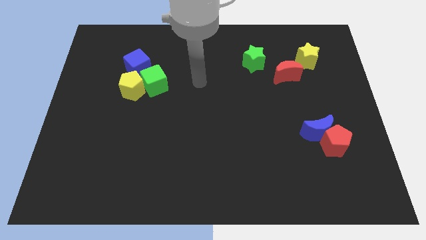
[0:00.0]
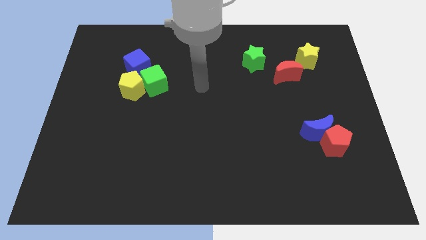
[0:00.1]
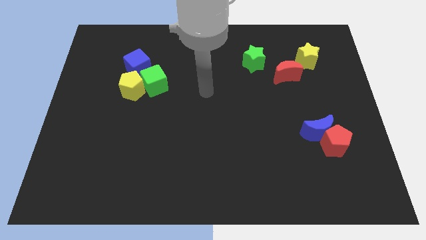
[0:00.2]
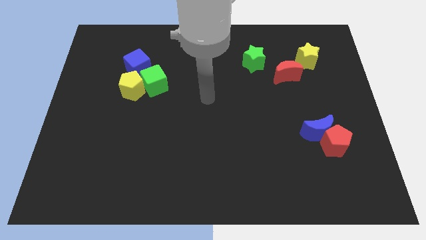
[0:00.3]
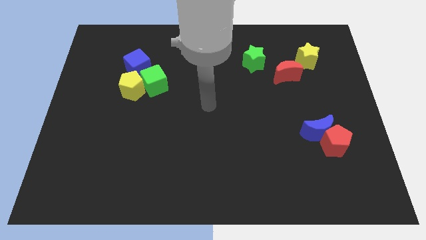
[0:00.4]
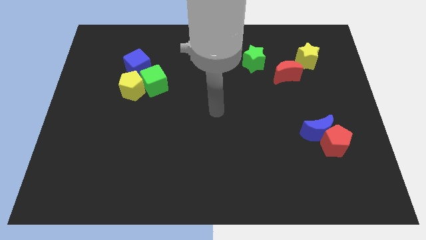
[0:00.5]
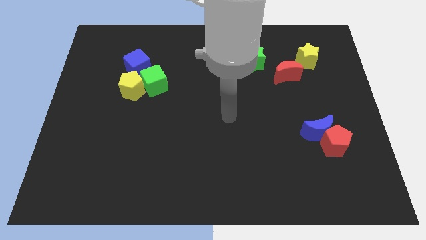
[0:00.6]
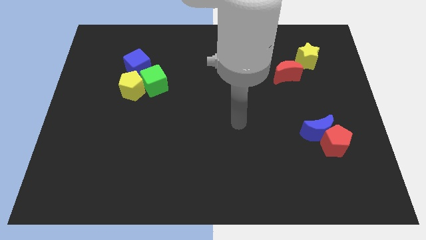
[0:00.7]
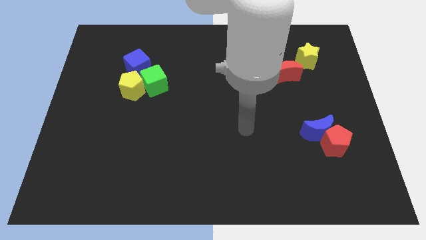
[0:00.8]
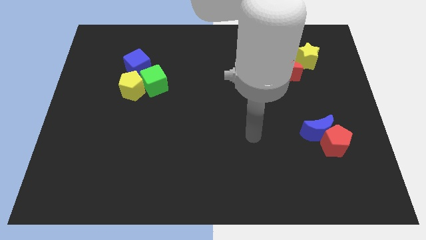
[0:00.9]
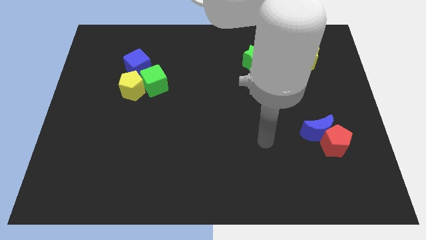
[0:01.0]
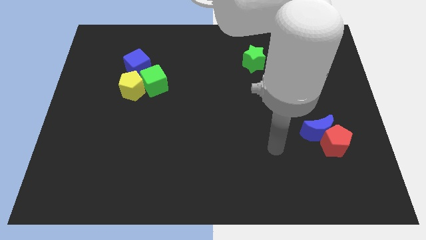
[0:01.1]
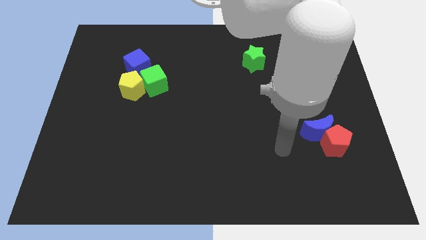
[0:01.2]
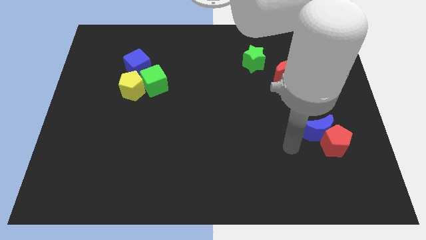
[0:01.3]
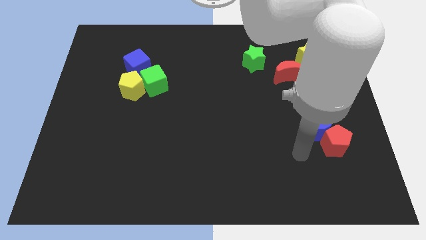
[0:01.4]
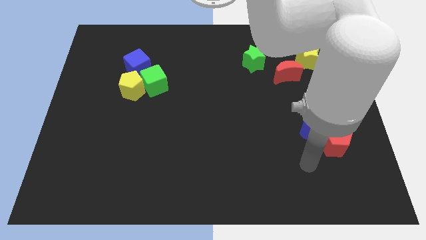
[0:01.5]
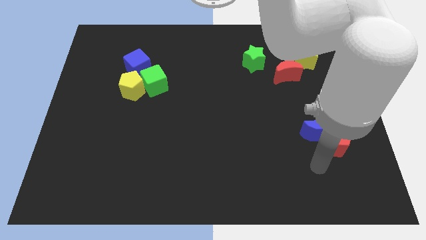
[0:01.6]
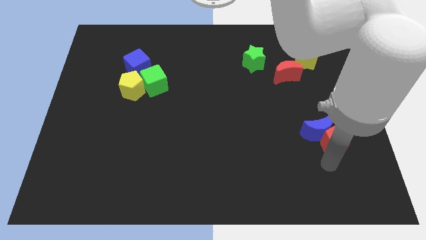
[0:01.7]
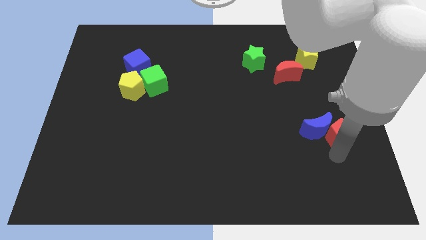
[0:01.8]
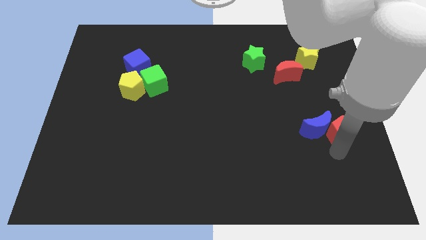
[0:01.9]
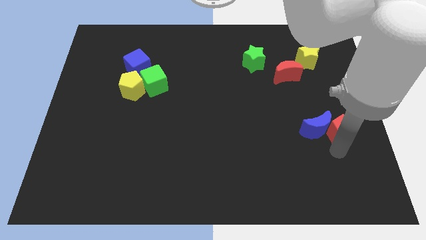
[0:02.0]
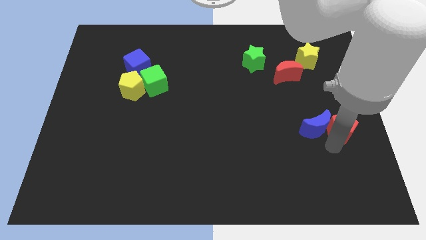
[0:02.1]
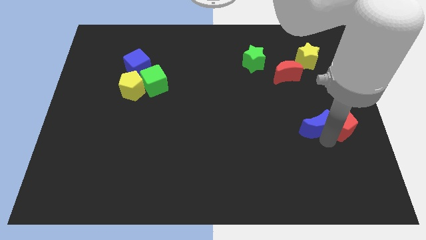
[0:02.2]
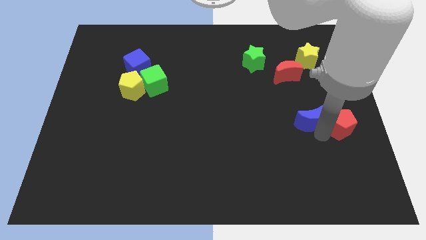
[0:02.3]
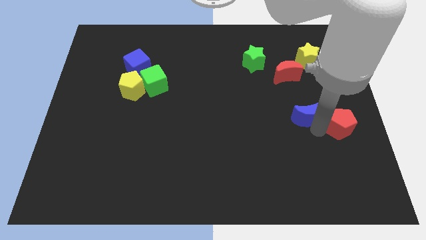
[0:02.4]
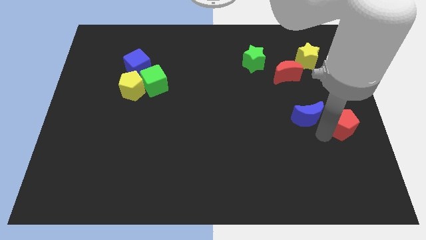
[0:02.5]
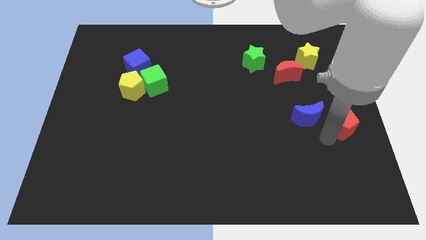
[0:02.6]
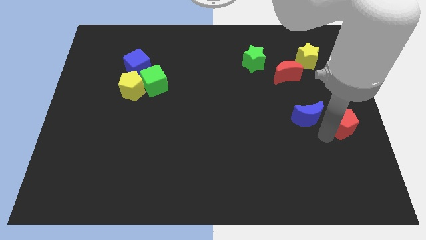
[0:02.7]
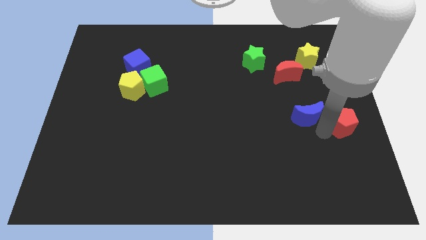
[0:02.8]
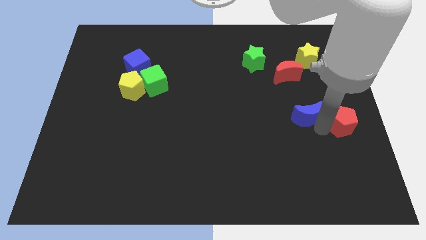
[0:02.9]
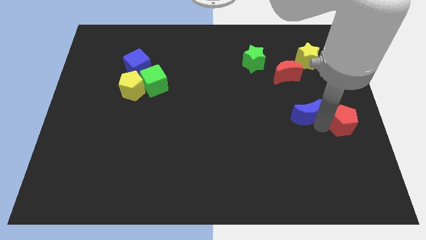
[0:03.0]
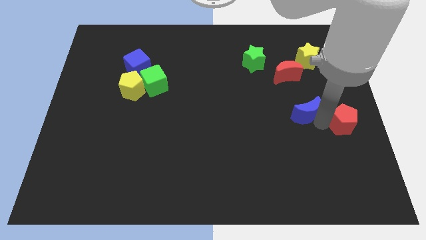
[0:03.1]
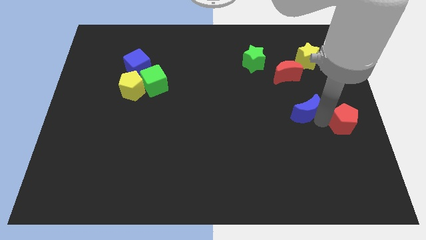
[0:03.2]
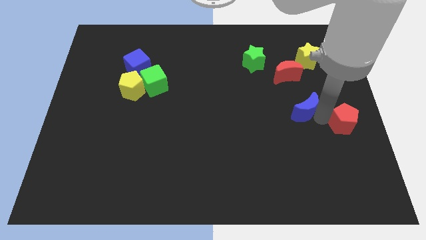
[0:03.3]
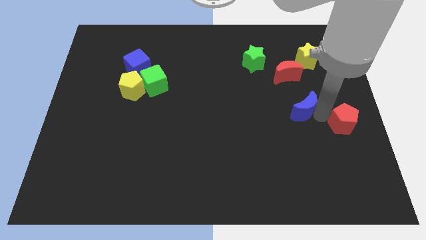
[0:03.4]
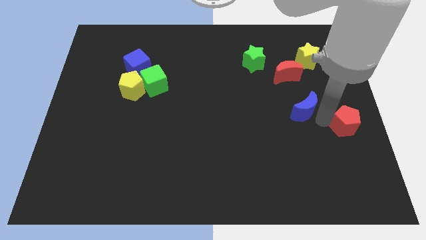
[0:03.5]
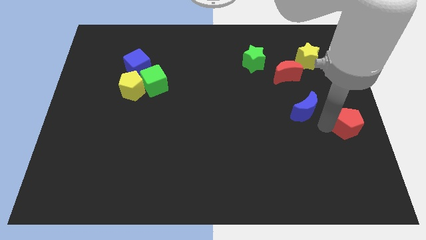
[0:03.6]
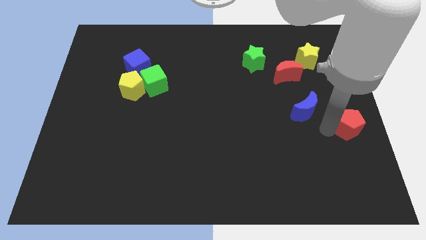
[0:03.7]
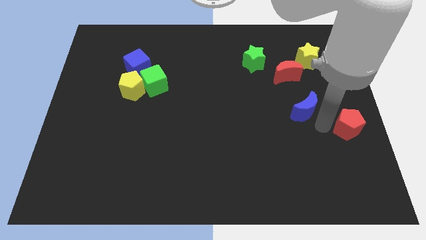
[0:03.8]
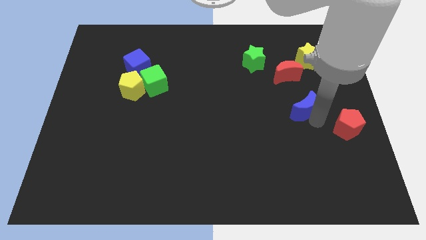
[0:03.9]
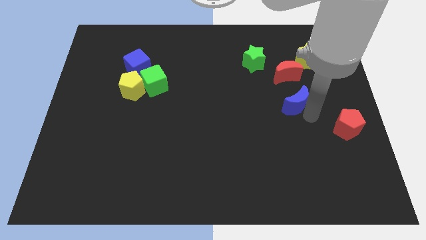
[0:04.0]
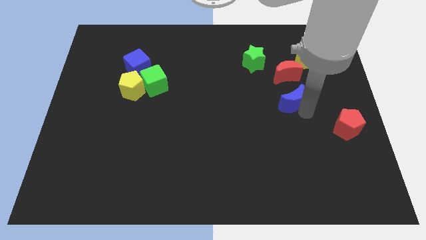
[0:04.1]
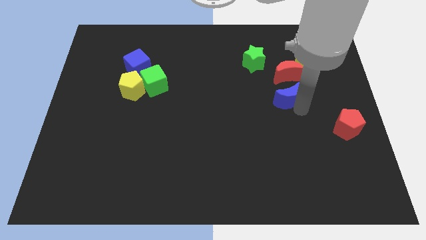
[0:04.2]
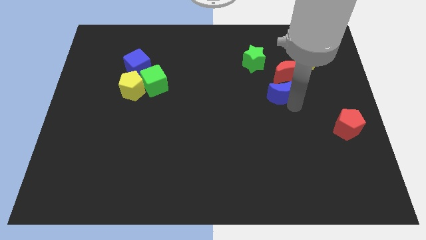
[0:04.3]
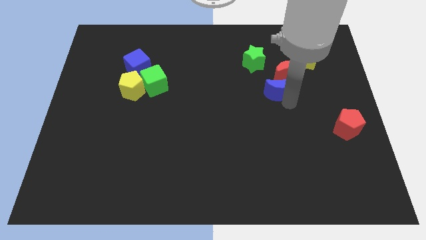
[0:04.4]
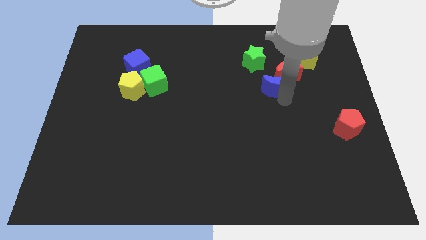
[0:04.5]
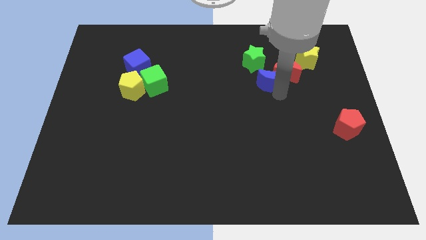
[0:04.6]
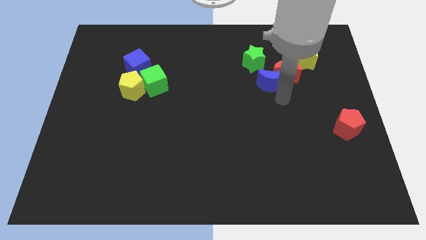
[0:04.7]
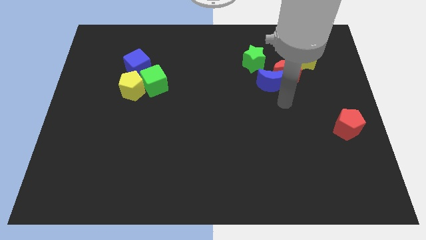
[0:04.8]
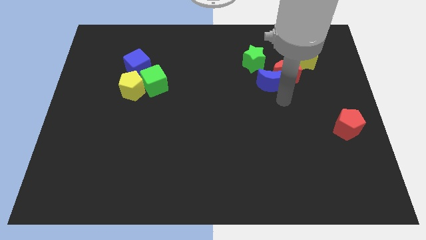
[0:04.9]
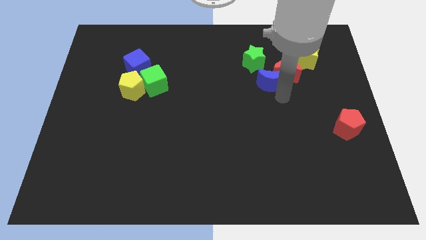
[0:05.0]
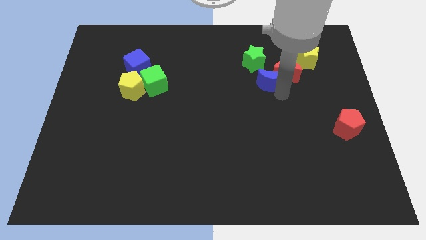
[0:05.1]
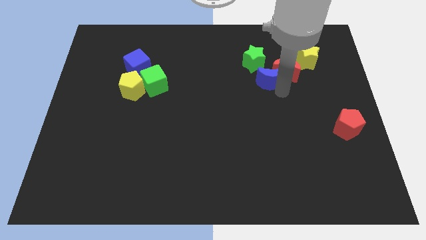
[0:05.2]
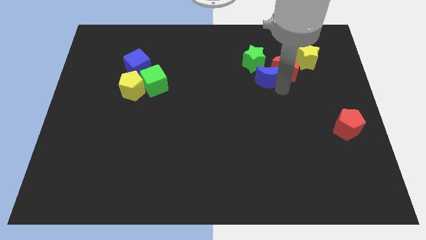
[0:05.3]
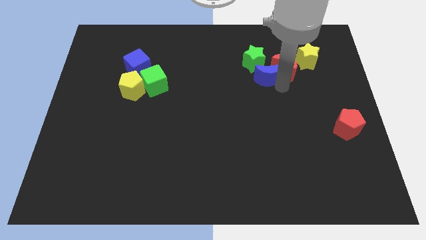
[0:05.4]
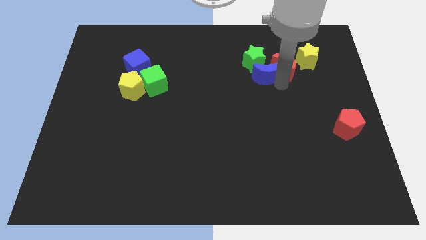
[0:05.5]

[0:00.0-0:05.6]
put the blue moon to the green star

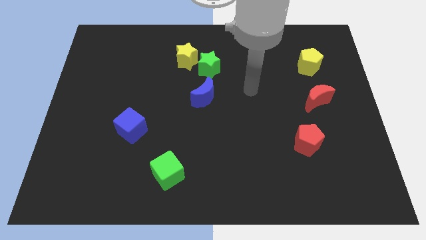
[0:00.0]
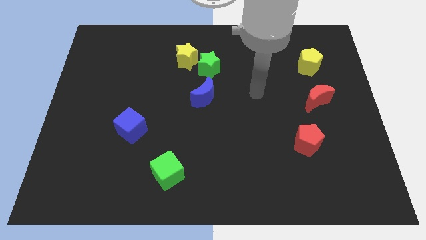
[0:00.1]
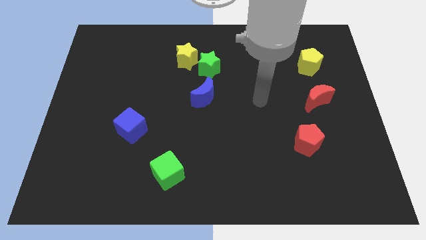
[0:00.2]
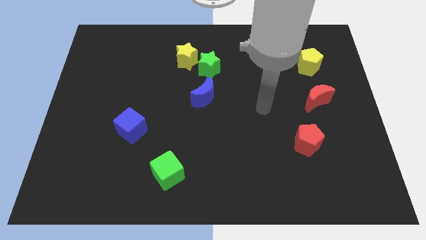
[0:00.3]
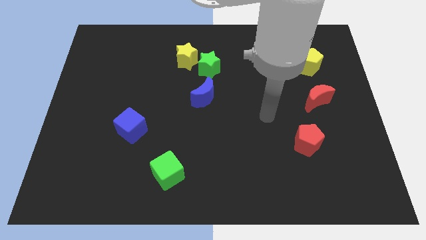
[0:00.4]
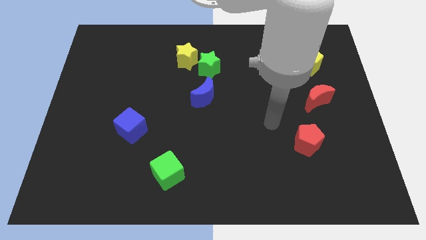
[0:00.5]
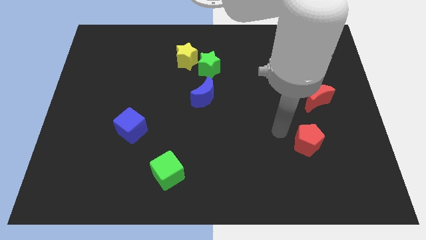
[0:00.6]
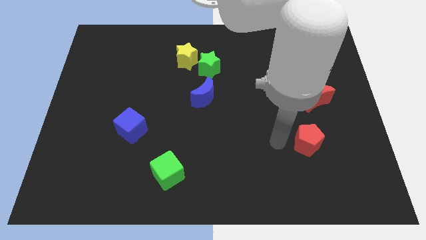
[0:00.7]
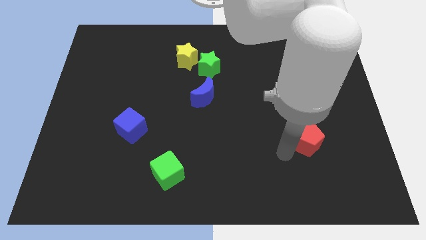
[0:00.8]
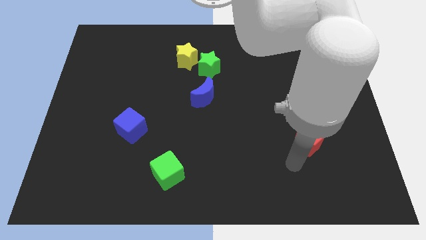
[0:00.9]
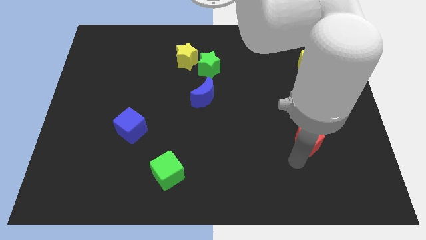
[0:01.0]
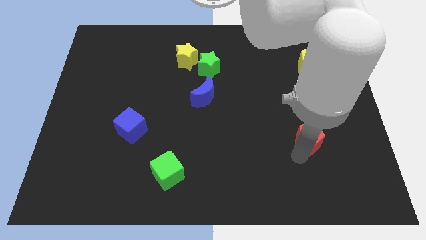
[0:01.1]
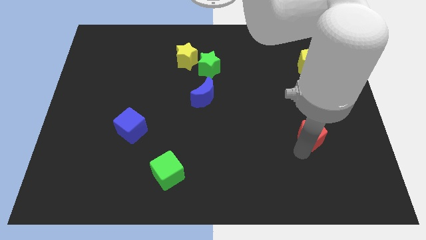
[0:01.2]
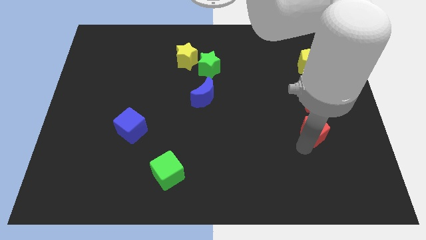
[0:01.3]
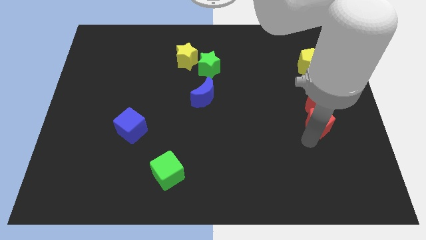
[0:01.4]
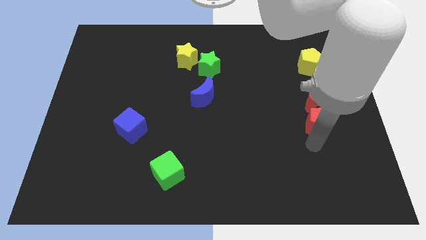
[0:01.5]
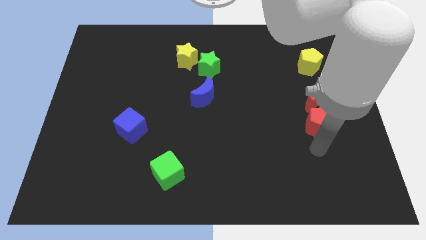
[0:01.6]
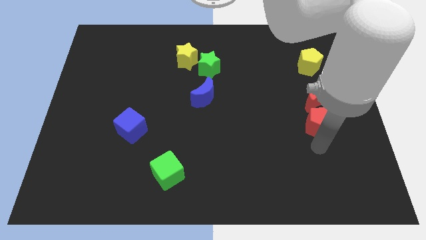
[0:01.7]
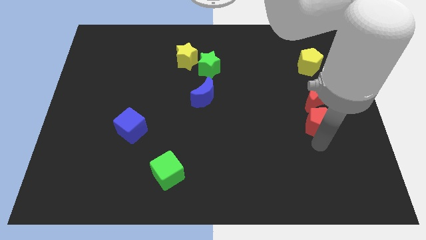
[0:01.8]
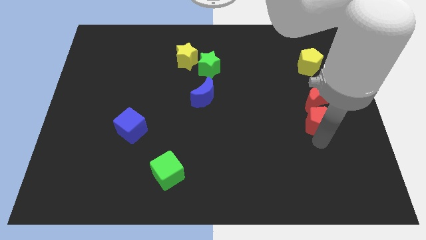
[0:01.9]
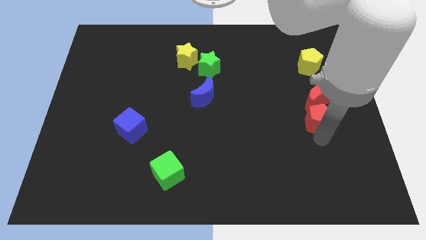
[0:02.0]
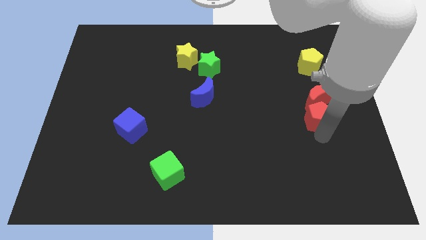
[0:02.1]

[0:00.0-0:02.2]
move the red pentagon close to the red moon
